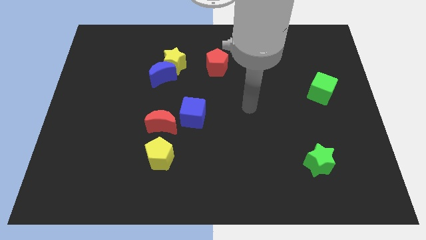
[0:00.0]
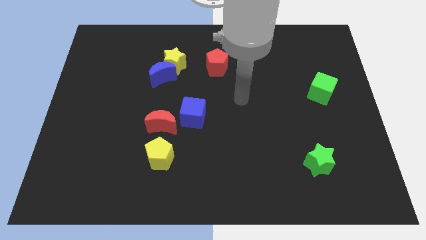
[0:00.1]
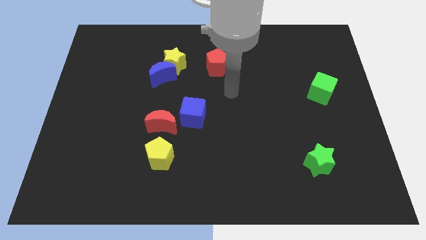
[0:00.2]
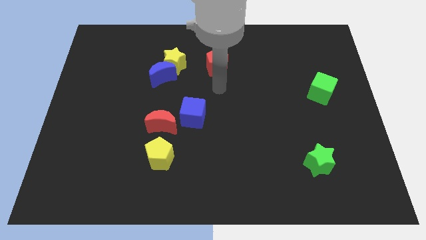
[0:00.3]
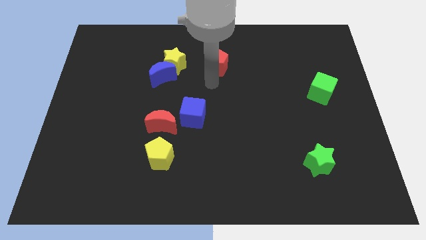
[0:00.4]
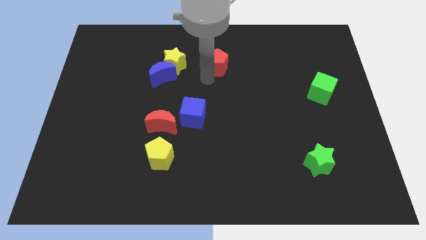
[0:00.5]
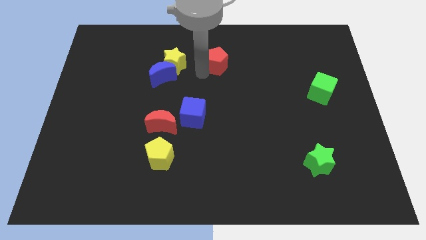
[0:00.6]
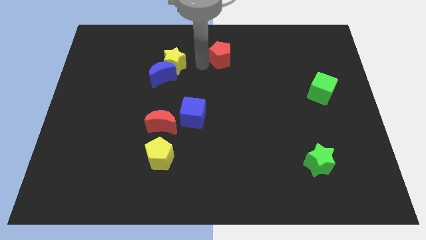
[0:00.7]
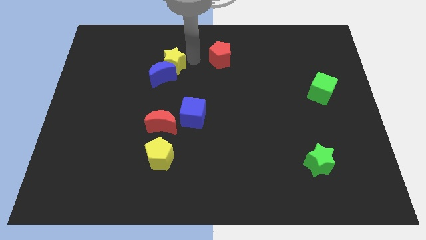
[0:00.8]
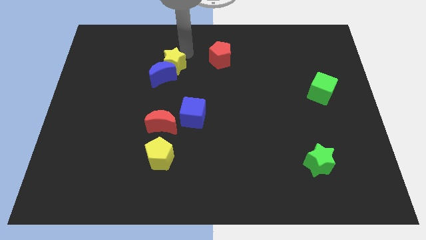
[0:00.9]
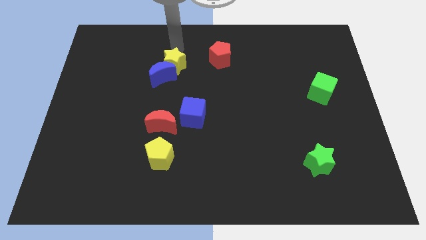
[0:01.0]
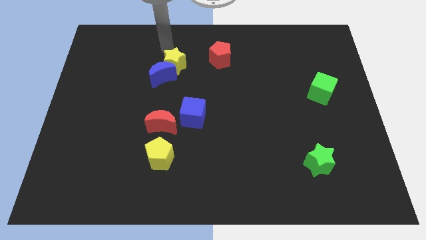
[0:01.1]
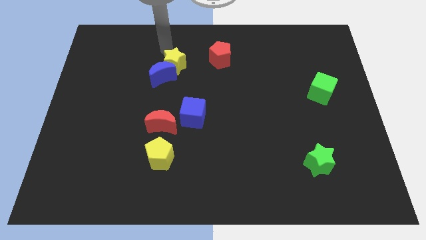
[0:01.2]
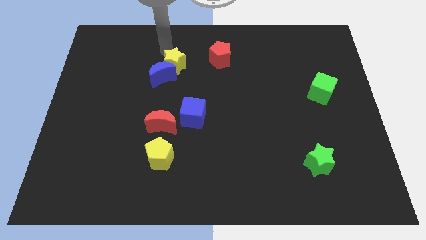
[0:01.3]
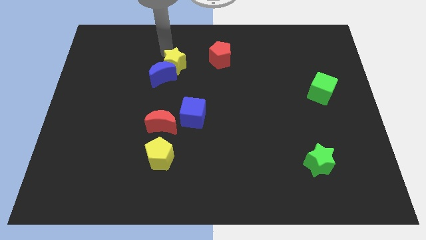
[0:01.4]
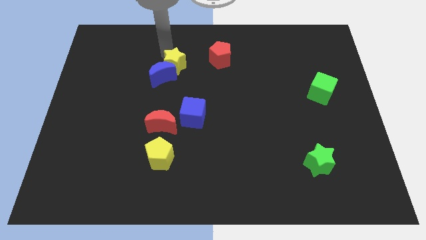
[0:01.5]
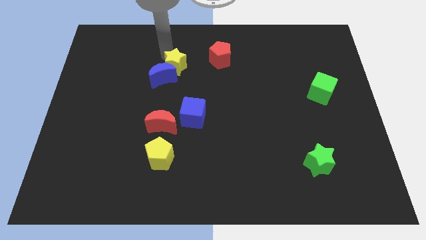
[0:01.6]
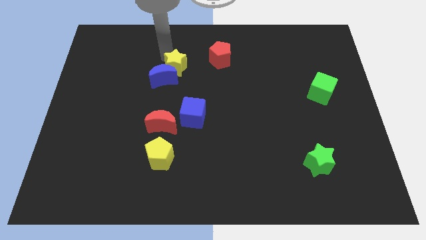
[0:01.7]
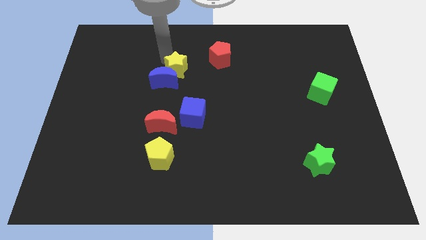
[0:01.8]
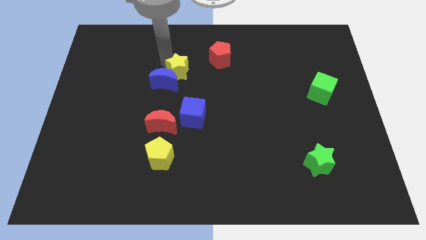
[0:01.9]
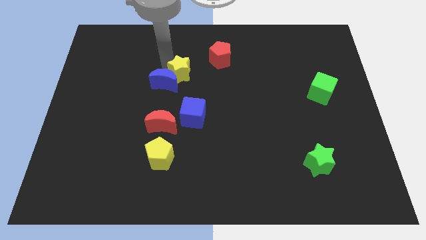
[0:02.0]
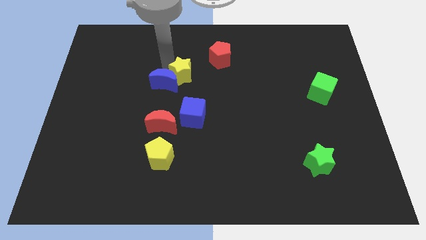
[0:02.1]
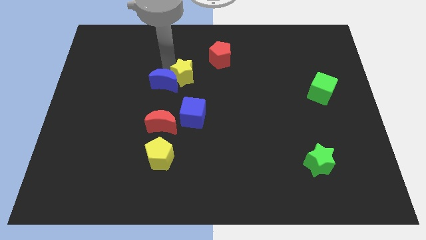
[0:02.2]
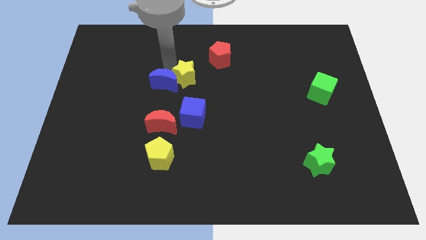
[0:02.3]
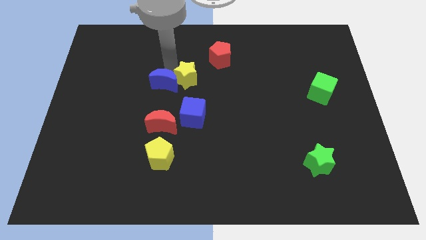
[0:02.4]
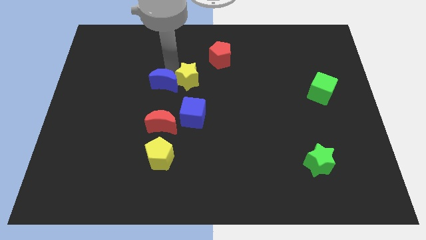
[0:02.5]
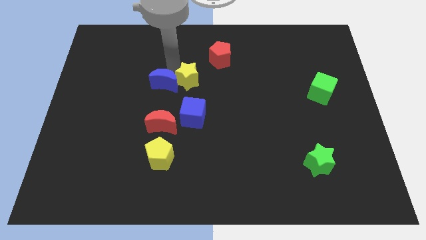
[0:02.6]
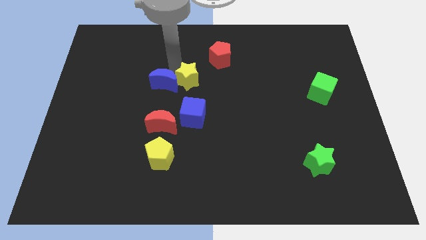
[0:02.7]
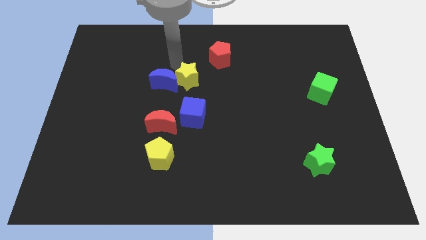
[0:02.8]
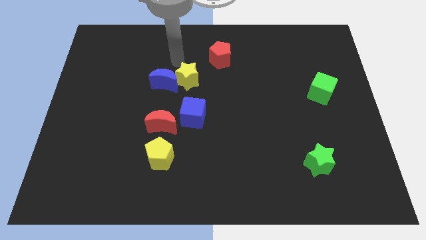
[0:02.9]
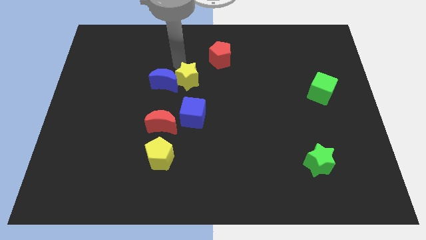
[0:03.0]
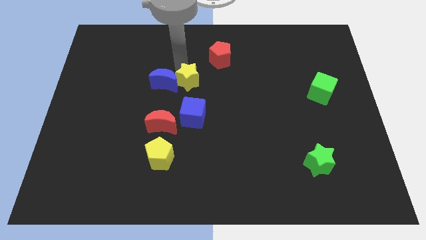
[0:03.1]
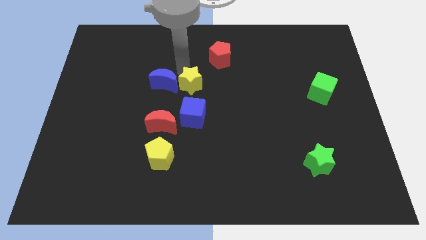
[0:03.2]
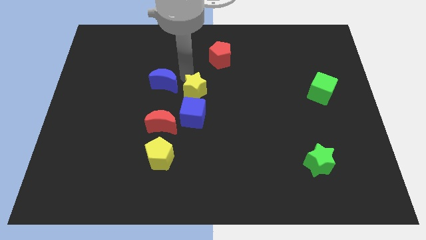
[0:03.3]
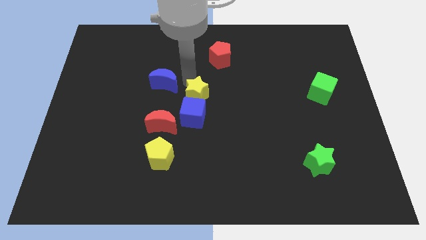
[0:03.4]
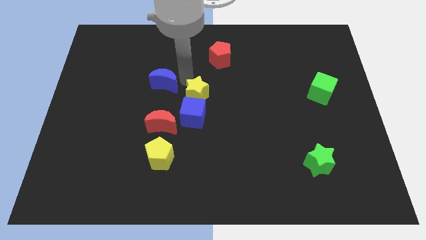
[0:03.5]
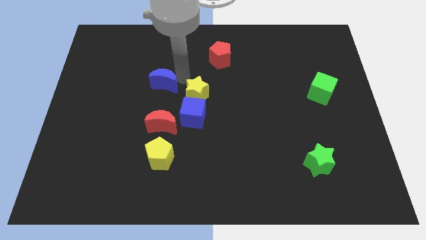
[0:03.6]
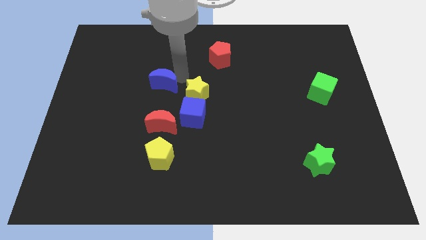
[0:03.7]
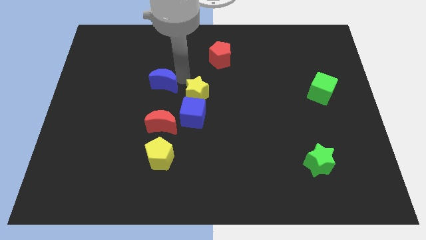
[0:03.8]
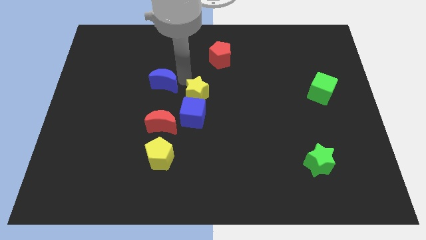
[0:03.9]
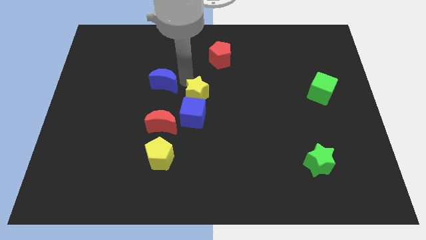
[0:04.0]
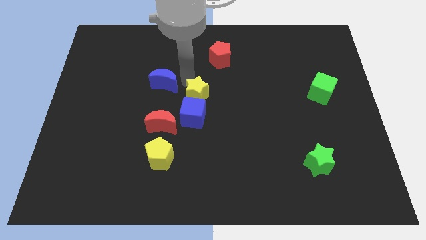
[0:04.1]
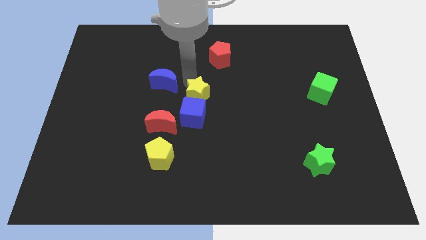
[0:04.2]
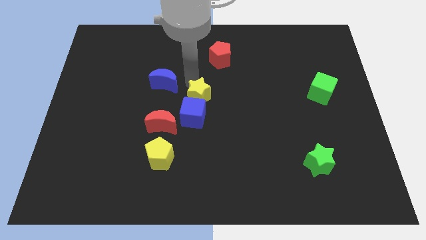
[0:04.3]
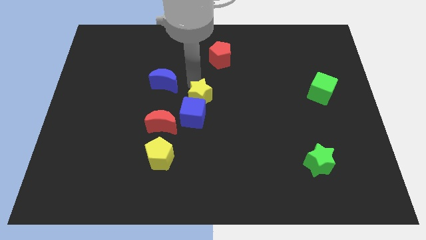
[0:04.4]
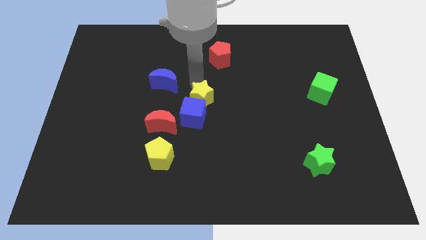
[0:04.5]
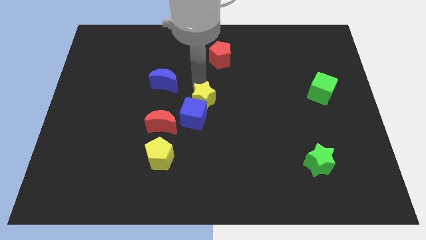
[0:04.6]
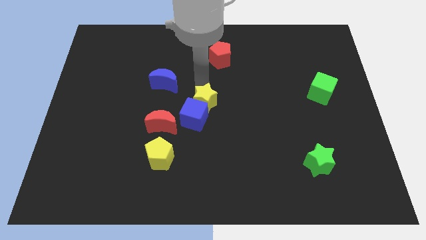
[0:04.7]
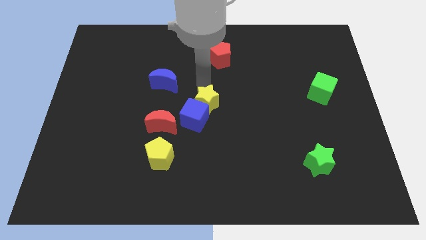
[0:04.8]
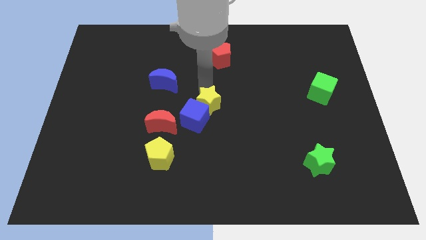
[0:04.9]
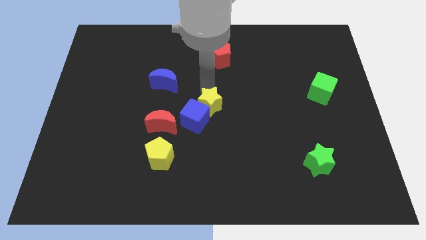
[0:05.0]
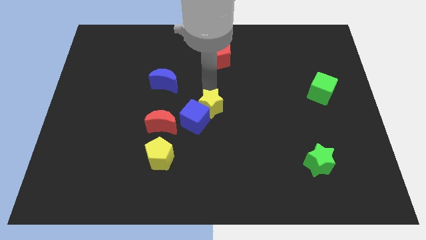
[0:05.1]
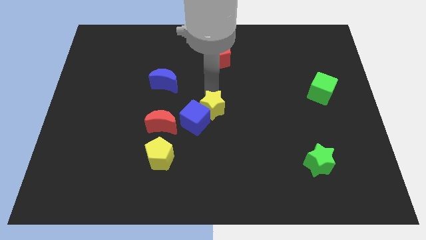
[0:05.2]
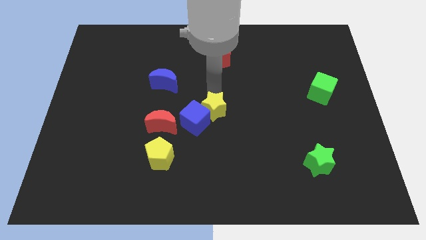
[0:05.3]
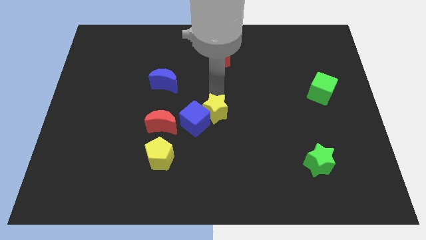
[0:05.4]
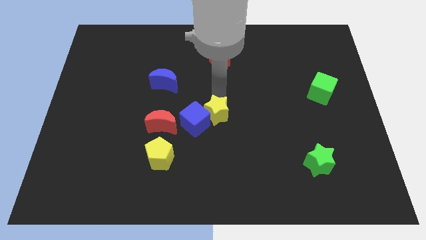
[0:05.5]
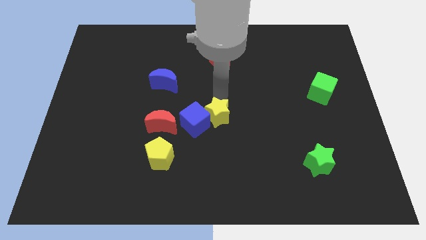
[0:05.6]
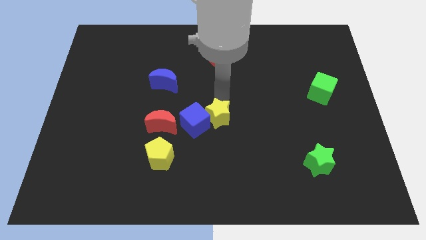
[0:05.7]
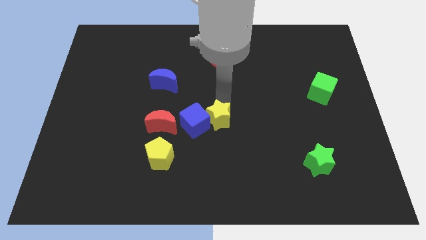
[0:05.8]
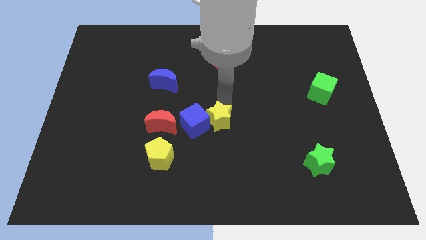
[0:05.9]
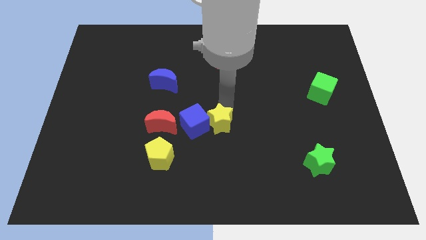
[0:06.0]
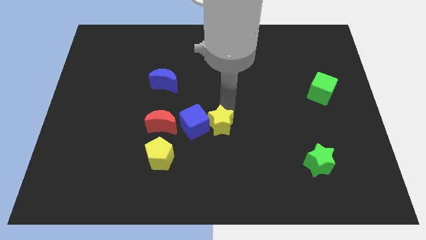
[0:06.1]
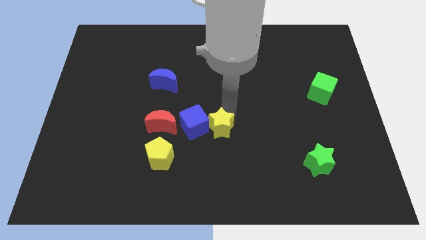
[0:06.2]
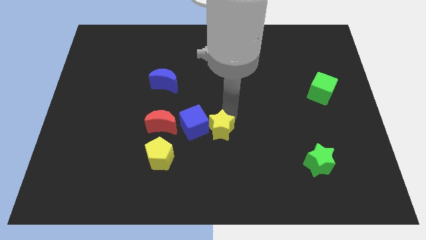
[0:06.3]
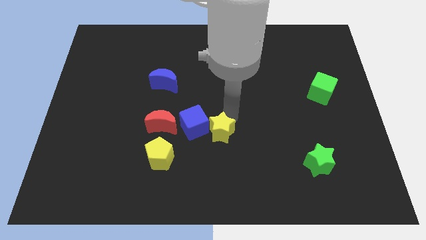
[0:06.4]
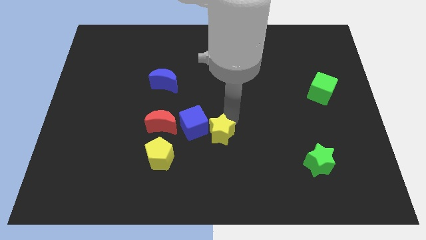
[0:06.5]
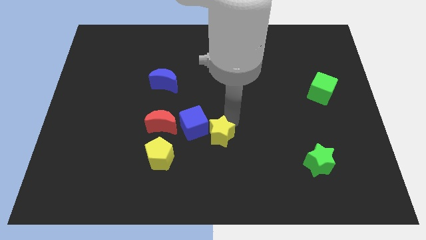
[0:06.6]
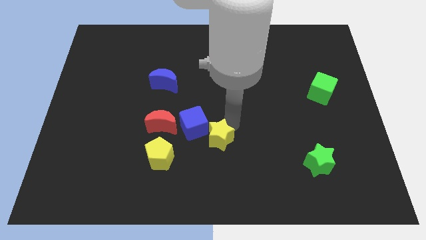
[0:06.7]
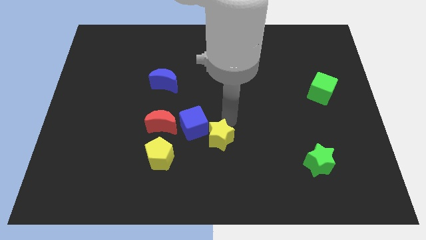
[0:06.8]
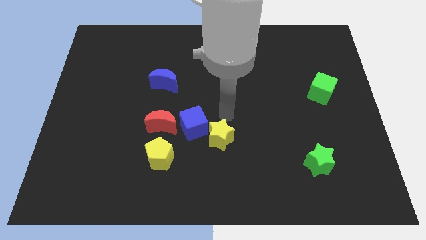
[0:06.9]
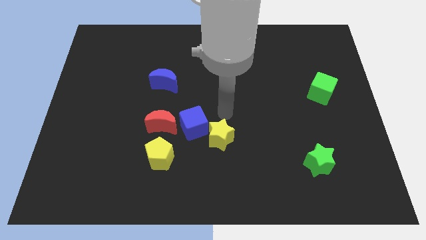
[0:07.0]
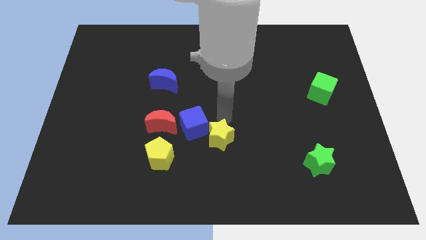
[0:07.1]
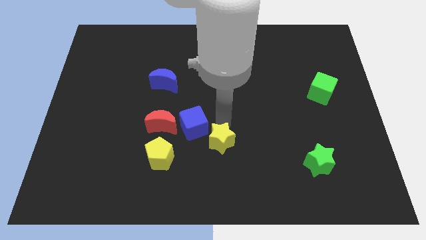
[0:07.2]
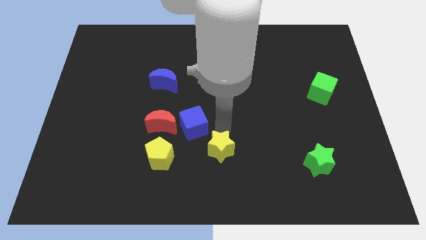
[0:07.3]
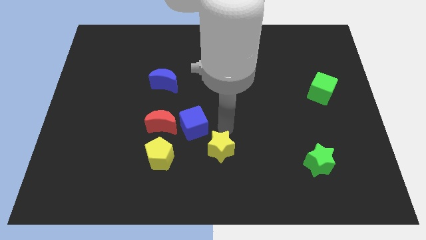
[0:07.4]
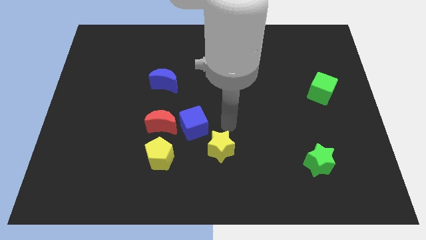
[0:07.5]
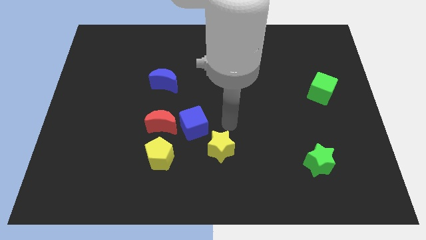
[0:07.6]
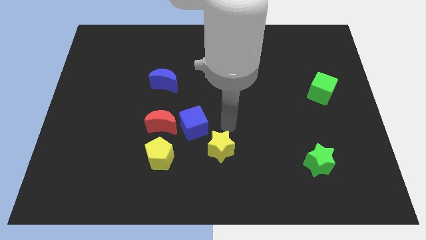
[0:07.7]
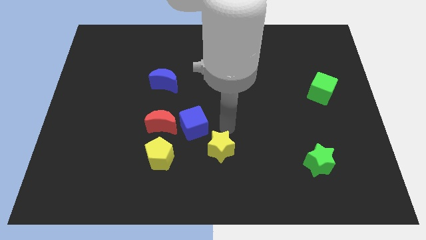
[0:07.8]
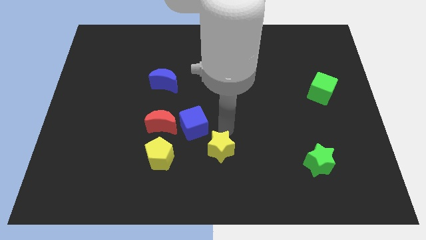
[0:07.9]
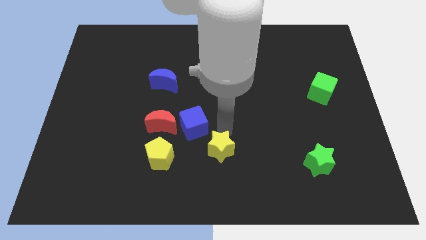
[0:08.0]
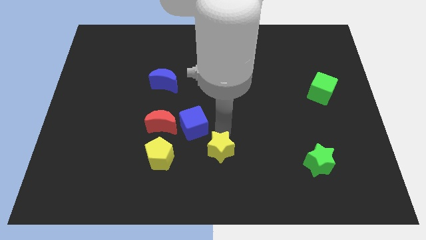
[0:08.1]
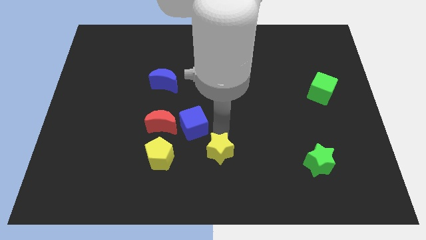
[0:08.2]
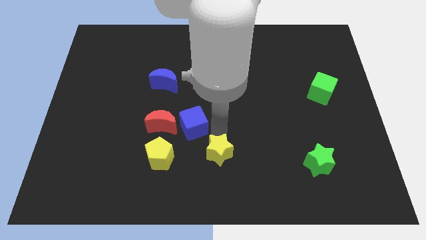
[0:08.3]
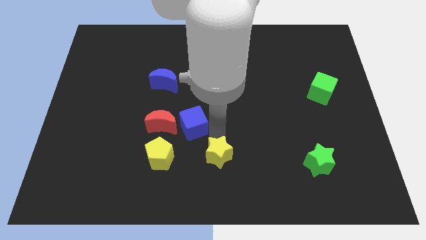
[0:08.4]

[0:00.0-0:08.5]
move the yellow star to the bottom side
